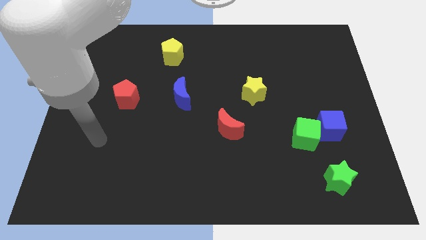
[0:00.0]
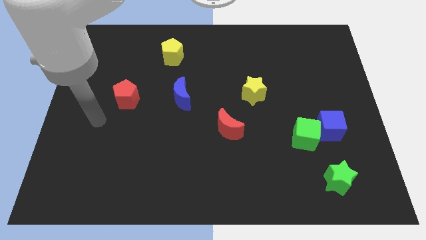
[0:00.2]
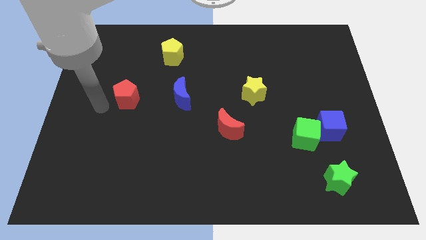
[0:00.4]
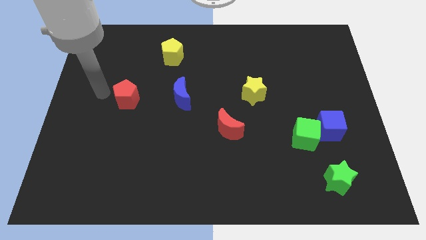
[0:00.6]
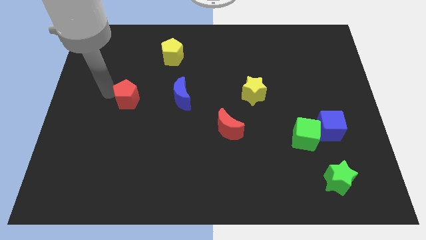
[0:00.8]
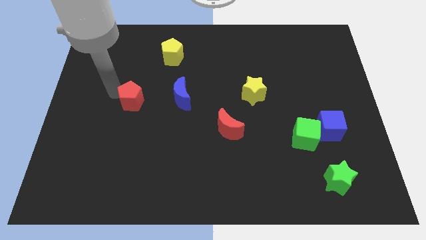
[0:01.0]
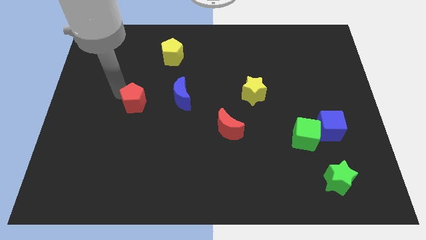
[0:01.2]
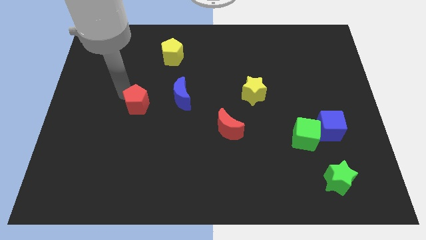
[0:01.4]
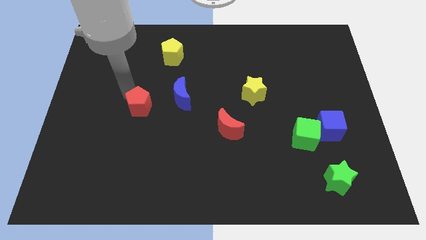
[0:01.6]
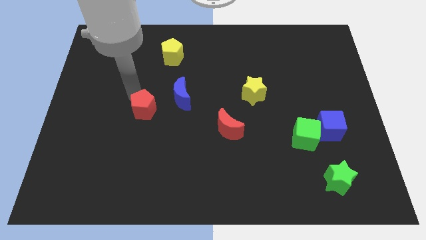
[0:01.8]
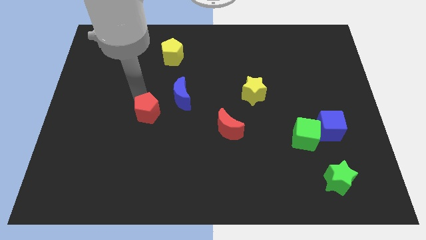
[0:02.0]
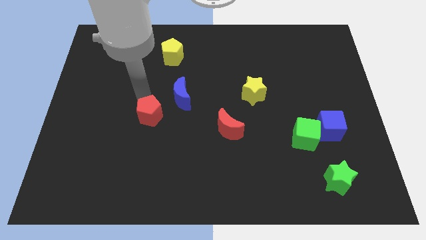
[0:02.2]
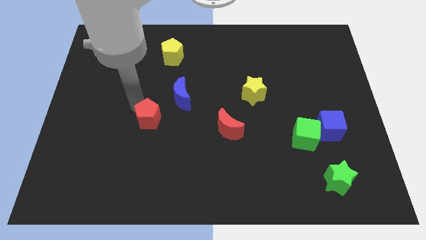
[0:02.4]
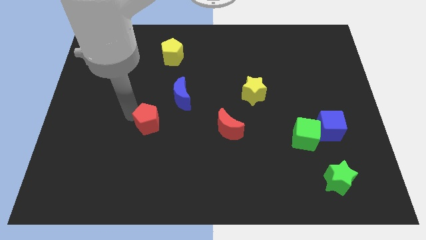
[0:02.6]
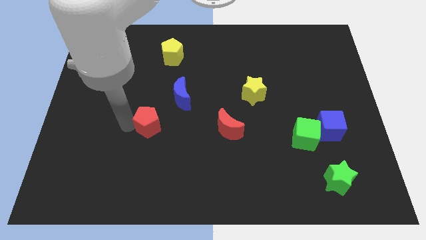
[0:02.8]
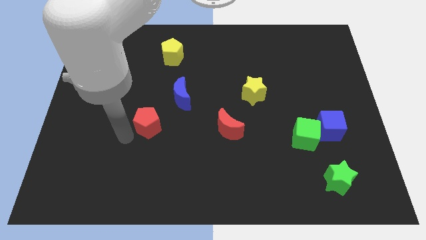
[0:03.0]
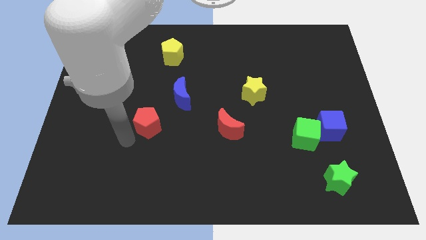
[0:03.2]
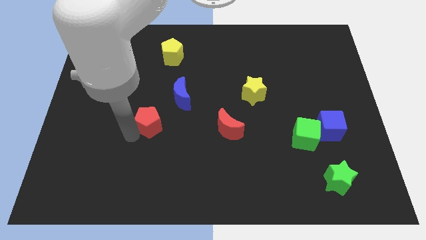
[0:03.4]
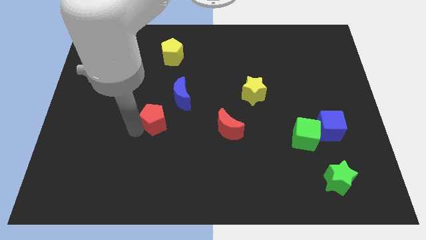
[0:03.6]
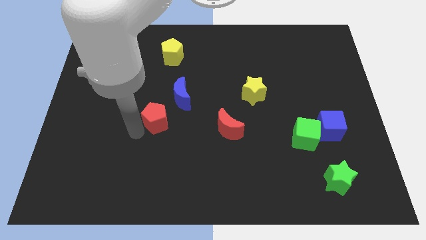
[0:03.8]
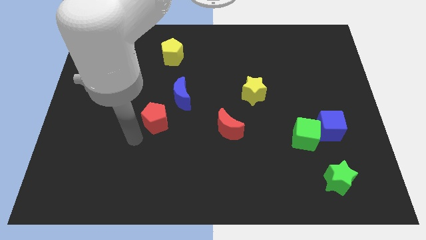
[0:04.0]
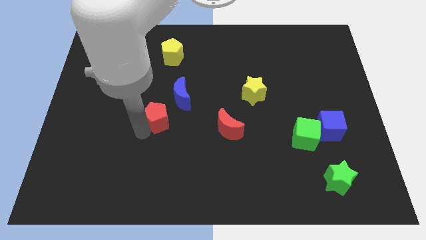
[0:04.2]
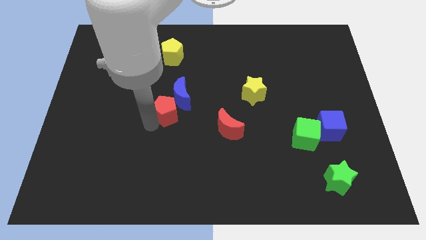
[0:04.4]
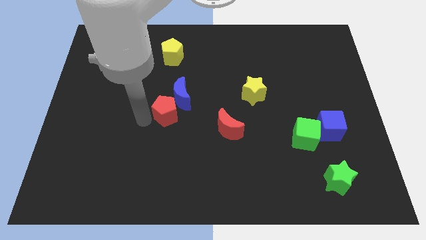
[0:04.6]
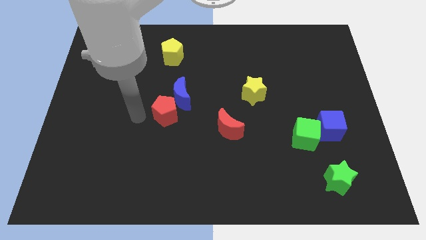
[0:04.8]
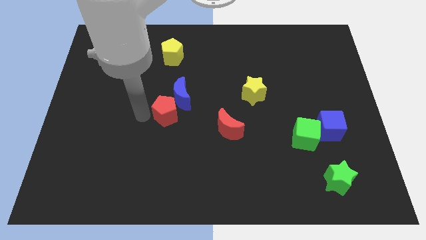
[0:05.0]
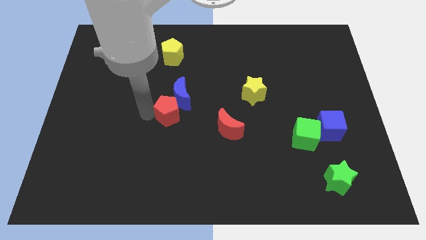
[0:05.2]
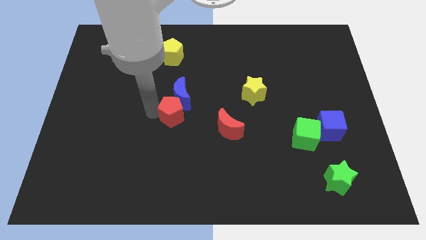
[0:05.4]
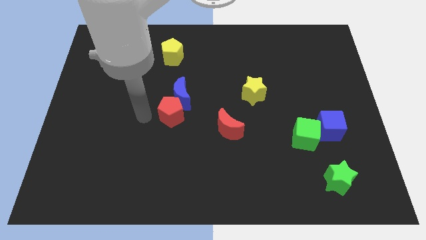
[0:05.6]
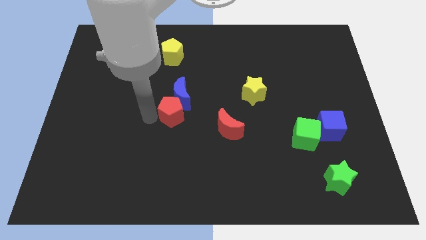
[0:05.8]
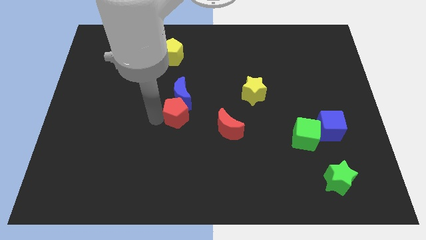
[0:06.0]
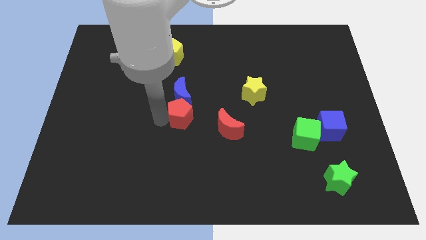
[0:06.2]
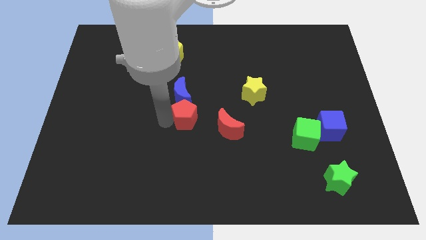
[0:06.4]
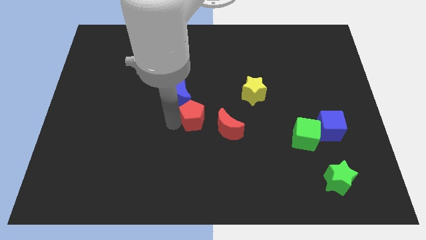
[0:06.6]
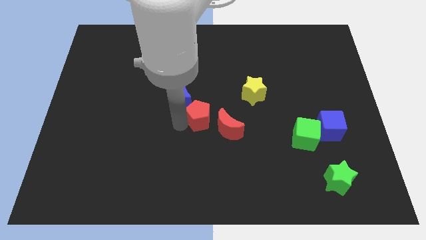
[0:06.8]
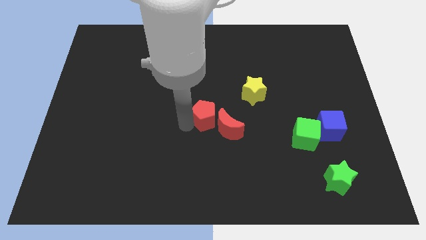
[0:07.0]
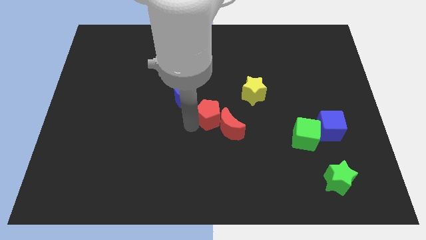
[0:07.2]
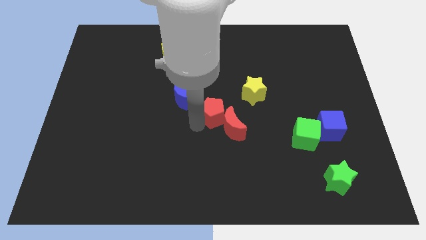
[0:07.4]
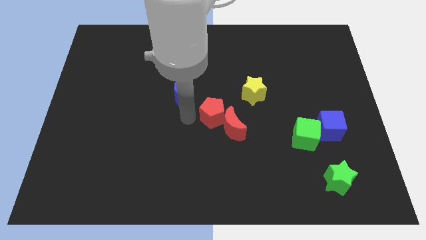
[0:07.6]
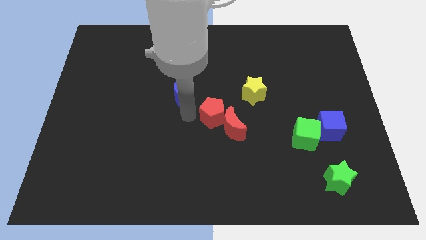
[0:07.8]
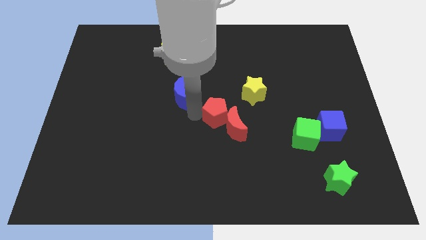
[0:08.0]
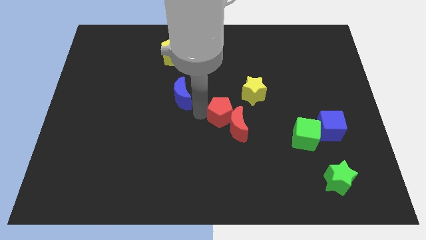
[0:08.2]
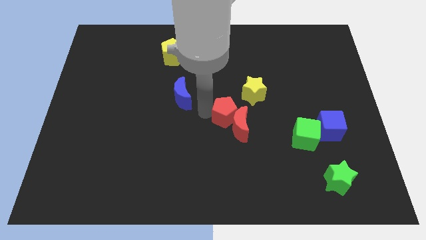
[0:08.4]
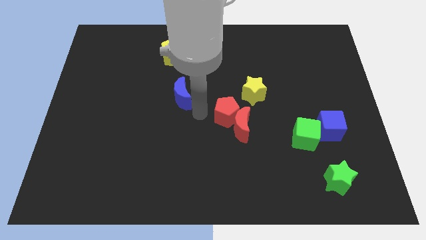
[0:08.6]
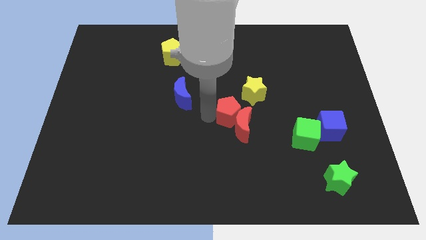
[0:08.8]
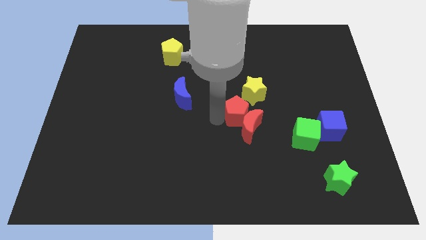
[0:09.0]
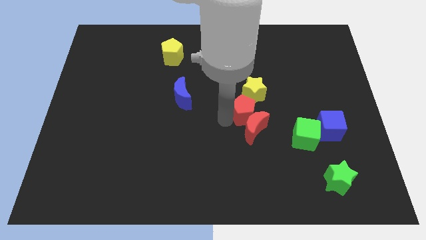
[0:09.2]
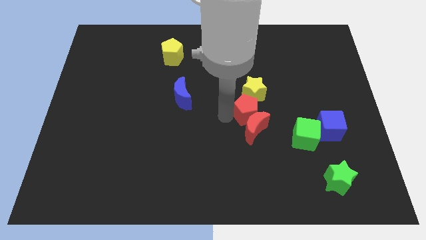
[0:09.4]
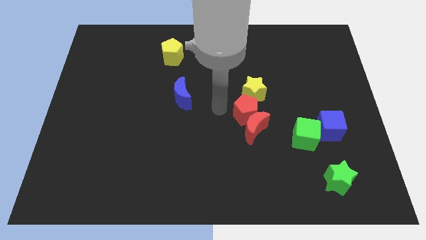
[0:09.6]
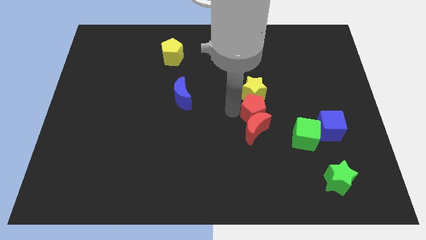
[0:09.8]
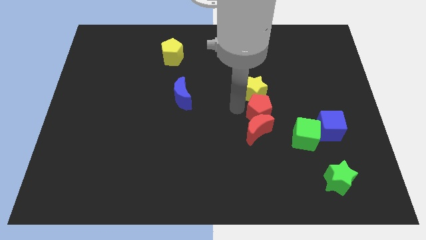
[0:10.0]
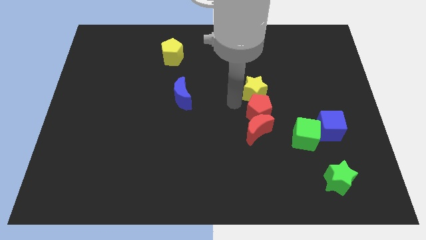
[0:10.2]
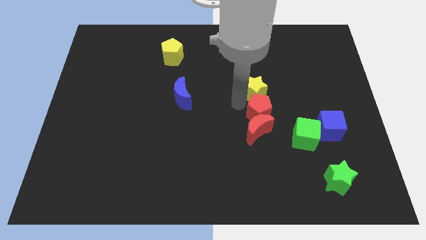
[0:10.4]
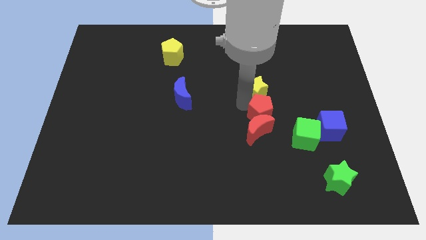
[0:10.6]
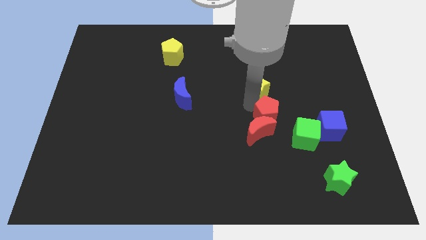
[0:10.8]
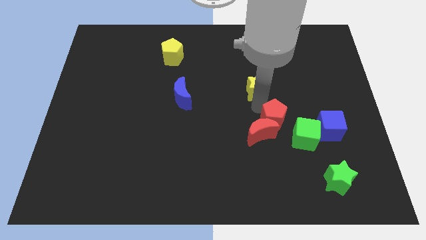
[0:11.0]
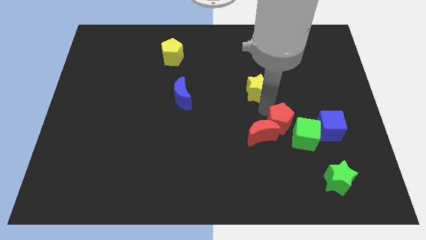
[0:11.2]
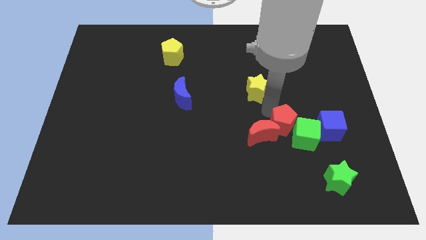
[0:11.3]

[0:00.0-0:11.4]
put the red pentagon towards the green cube

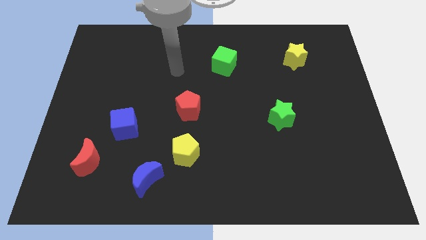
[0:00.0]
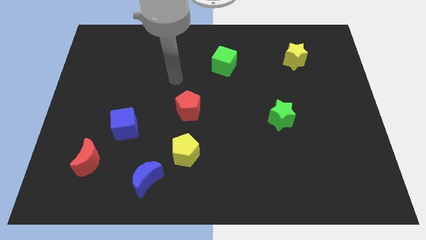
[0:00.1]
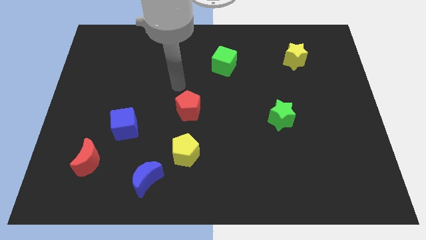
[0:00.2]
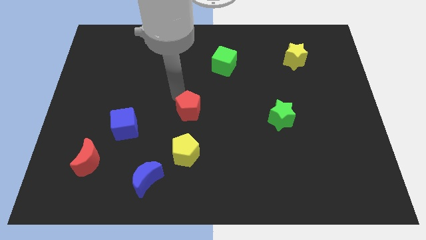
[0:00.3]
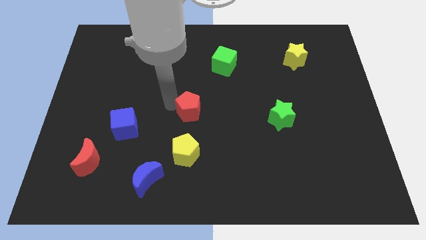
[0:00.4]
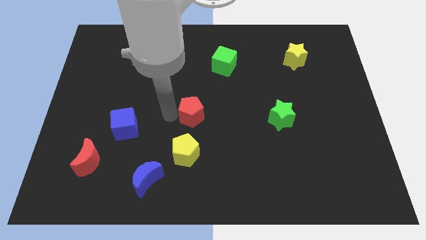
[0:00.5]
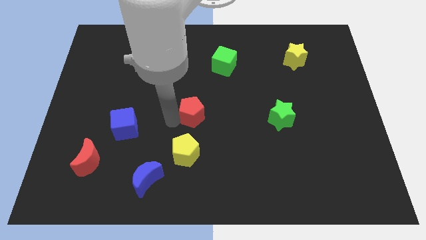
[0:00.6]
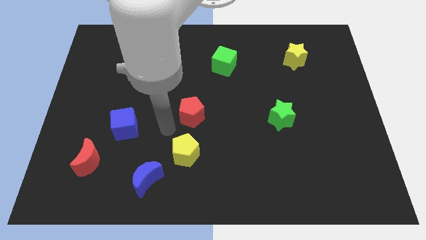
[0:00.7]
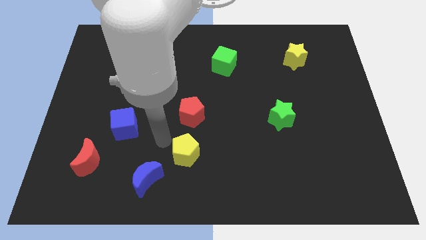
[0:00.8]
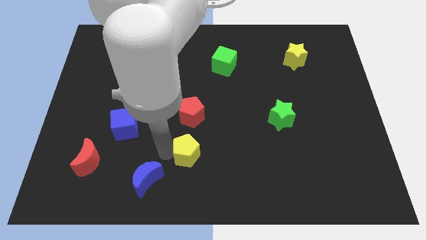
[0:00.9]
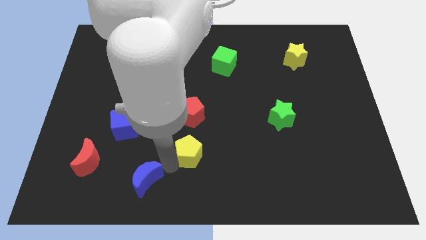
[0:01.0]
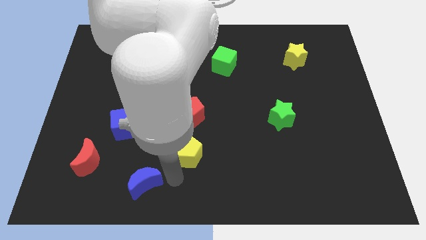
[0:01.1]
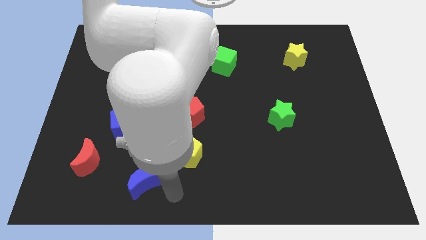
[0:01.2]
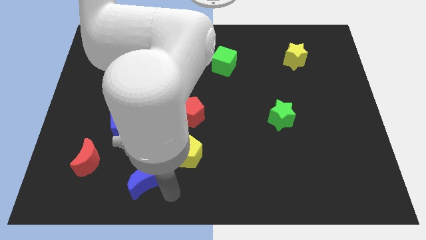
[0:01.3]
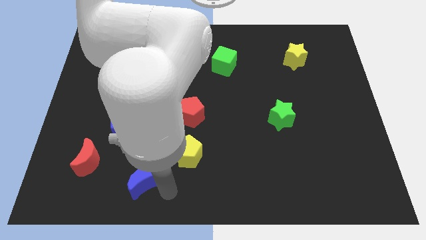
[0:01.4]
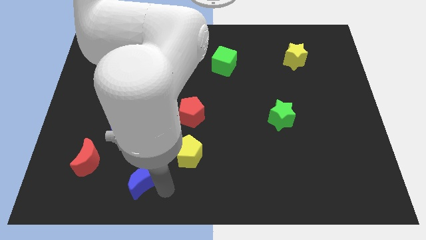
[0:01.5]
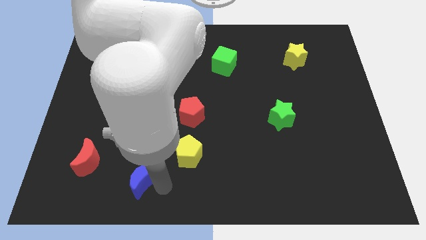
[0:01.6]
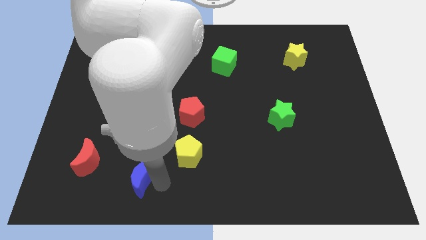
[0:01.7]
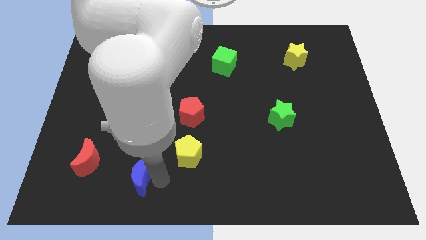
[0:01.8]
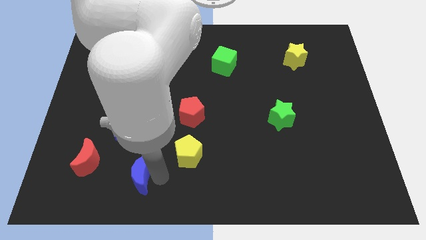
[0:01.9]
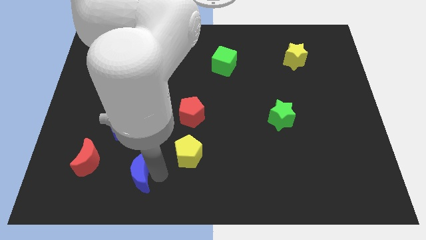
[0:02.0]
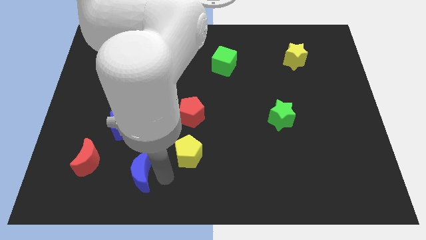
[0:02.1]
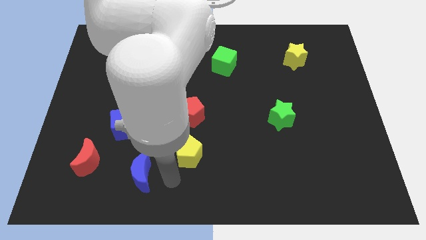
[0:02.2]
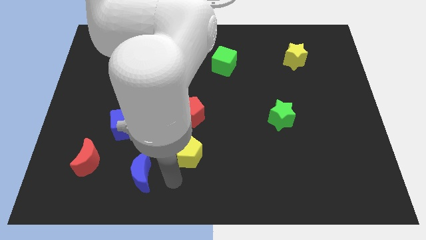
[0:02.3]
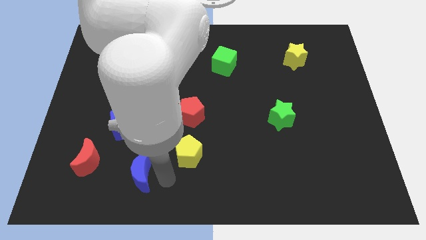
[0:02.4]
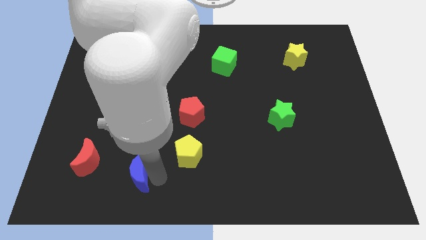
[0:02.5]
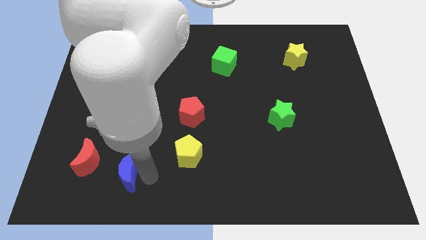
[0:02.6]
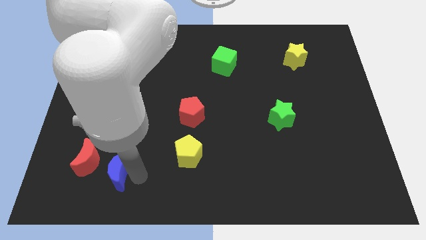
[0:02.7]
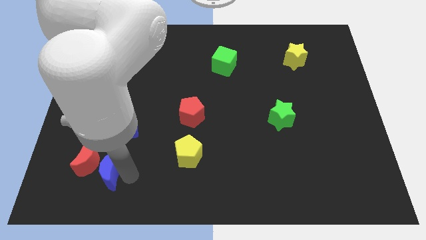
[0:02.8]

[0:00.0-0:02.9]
push the blue moon to the red moon
